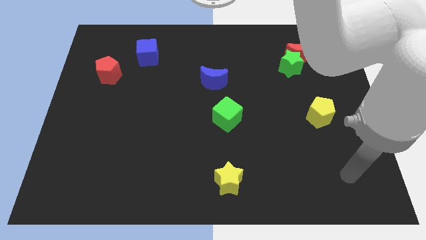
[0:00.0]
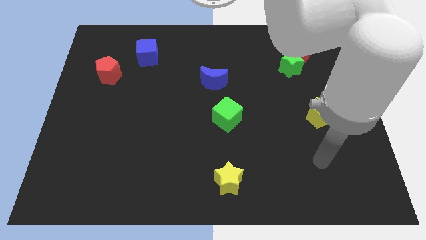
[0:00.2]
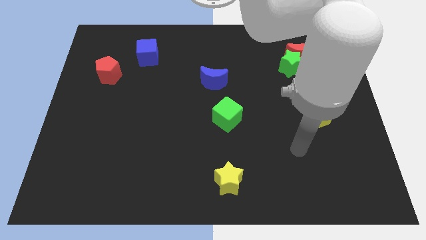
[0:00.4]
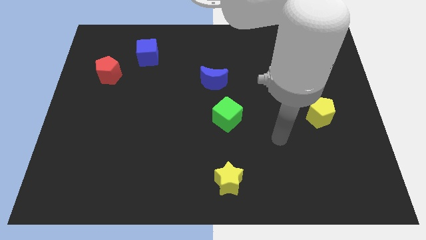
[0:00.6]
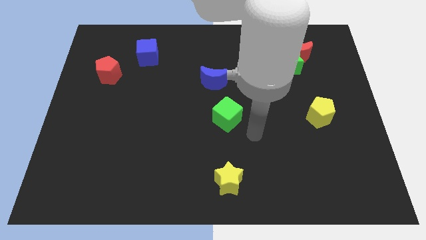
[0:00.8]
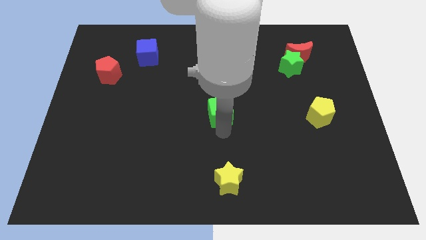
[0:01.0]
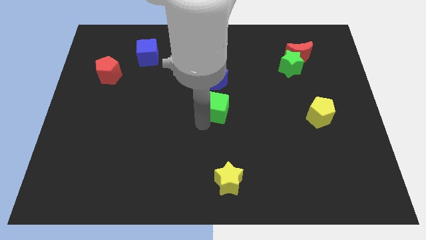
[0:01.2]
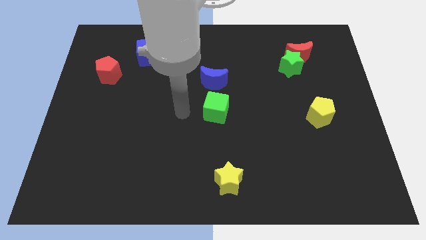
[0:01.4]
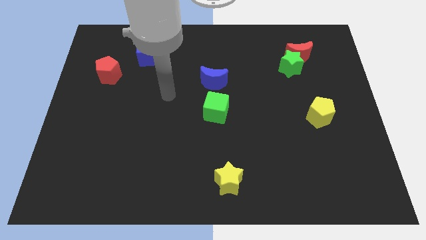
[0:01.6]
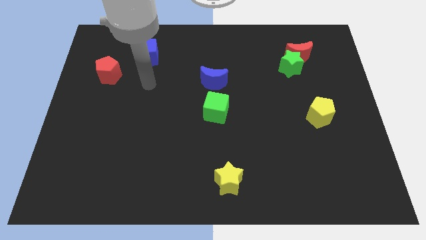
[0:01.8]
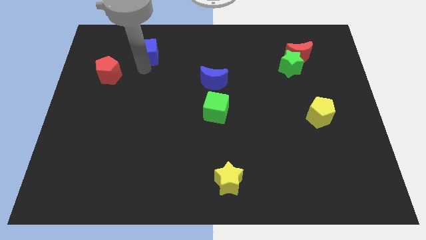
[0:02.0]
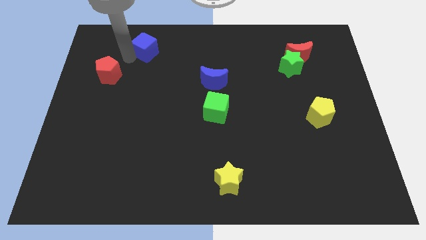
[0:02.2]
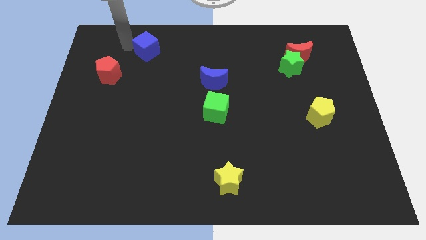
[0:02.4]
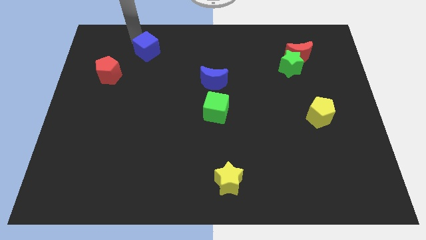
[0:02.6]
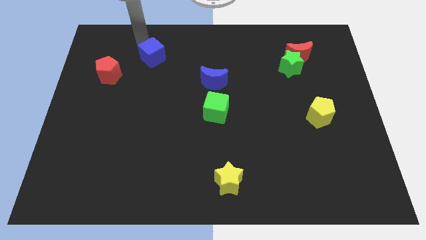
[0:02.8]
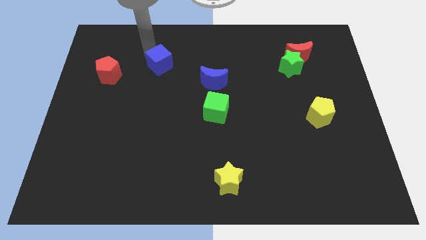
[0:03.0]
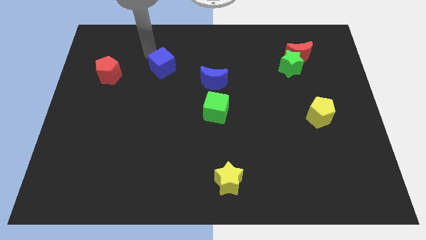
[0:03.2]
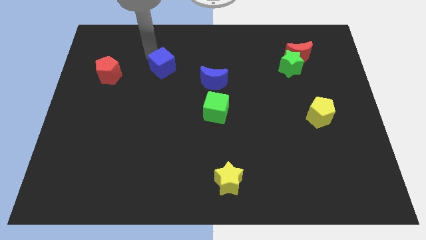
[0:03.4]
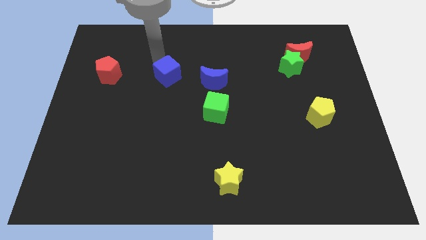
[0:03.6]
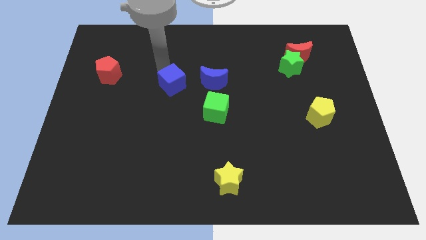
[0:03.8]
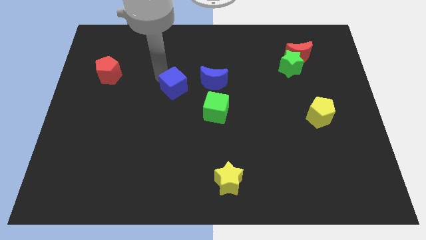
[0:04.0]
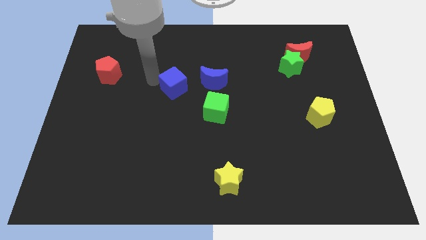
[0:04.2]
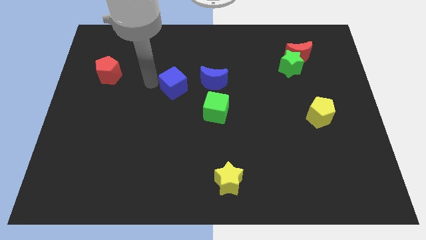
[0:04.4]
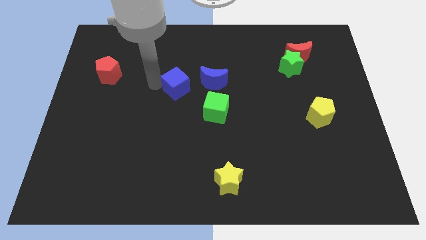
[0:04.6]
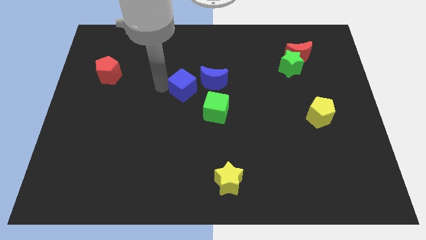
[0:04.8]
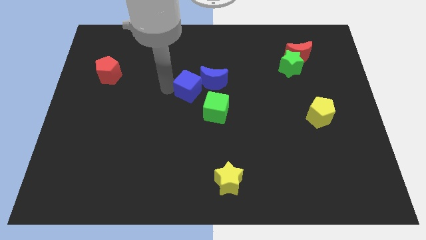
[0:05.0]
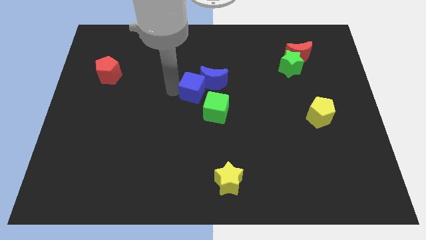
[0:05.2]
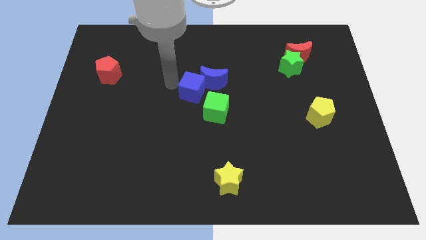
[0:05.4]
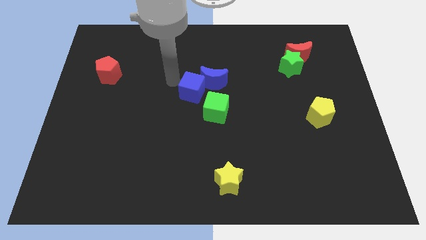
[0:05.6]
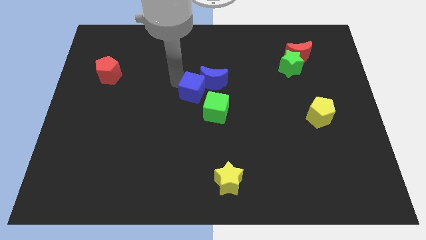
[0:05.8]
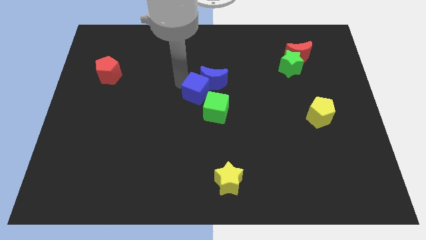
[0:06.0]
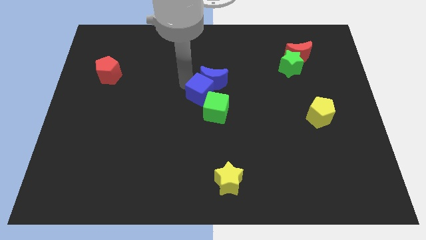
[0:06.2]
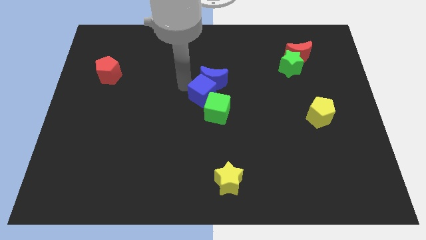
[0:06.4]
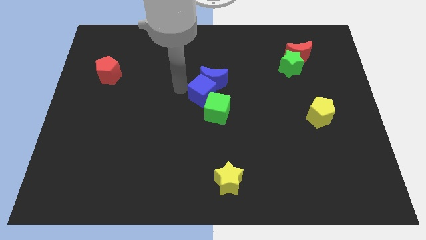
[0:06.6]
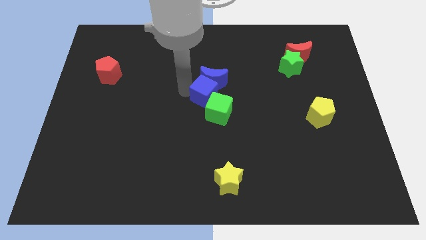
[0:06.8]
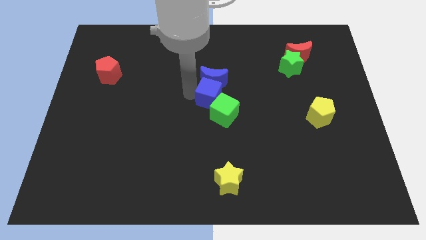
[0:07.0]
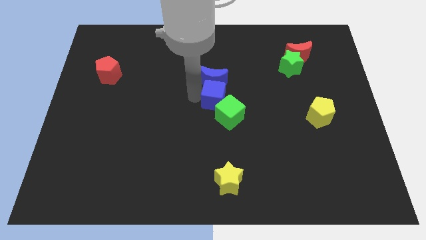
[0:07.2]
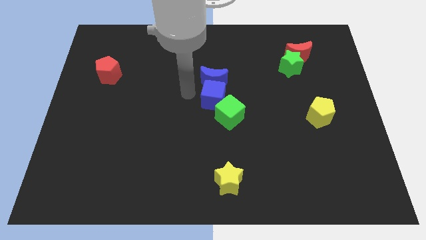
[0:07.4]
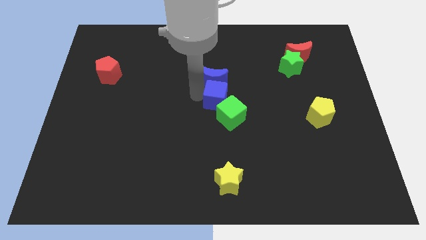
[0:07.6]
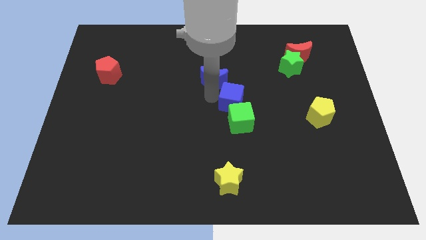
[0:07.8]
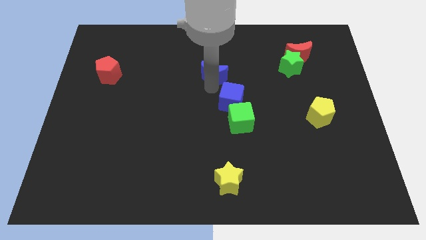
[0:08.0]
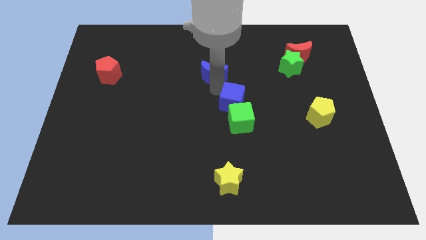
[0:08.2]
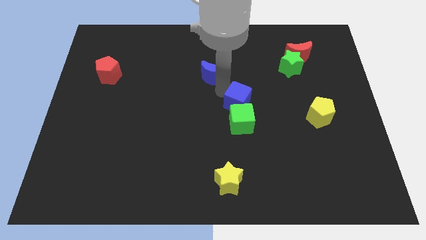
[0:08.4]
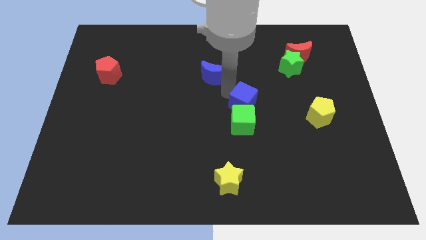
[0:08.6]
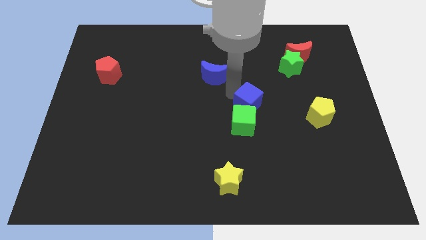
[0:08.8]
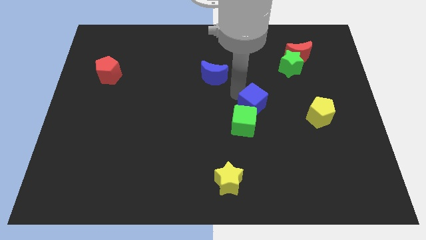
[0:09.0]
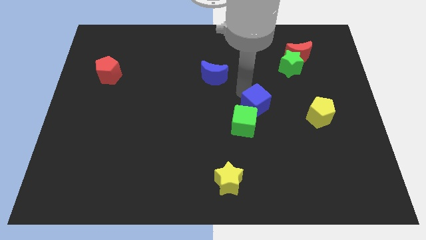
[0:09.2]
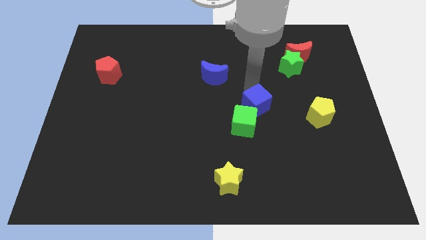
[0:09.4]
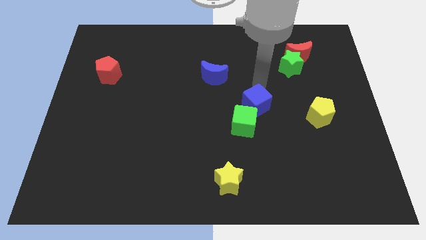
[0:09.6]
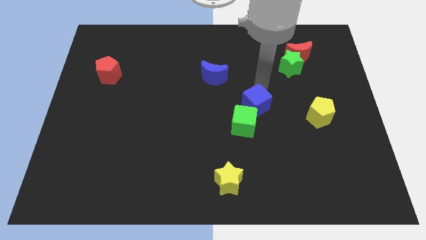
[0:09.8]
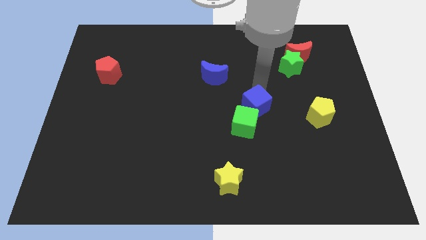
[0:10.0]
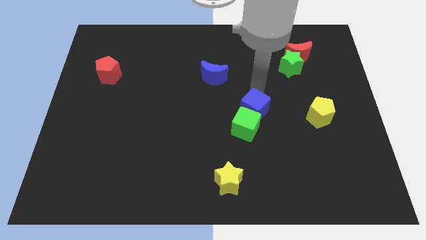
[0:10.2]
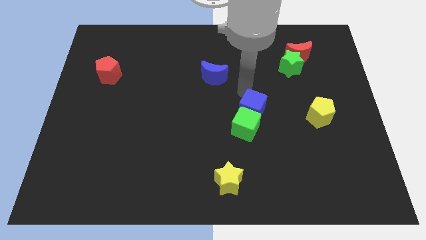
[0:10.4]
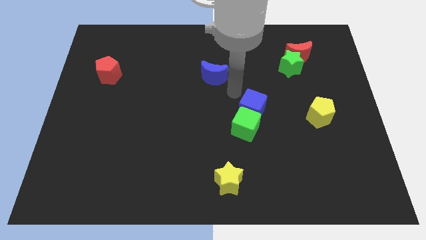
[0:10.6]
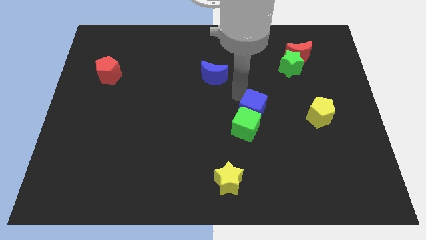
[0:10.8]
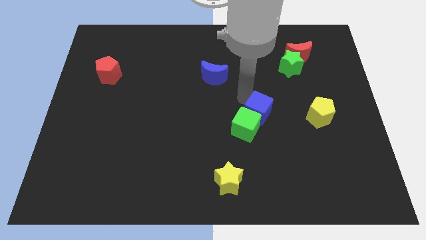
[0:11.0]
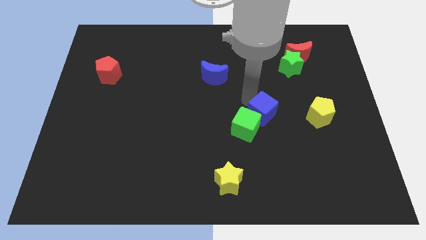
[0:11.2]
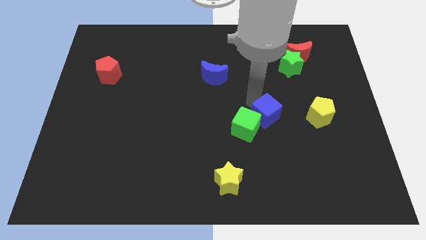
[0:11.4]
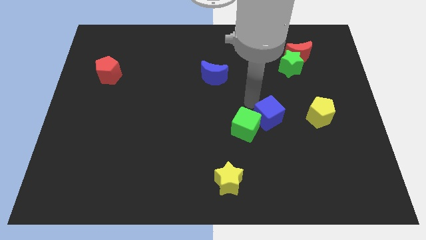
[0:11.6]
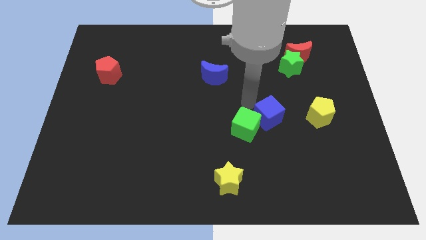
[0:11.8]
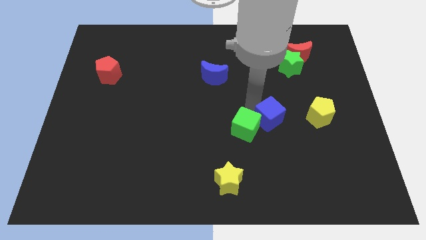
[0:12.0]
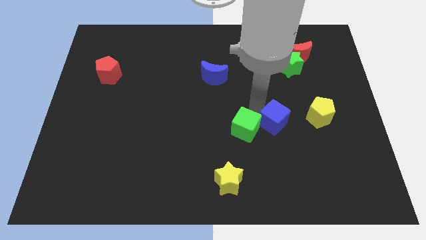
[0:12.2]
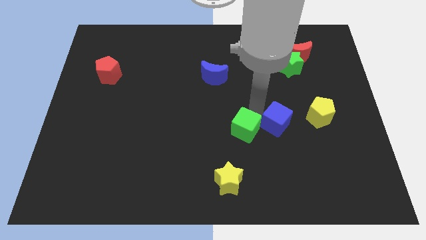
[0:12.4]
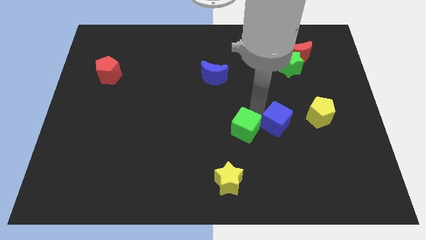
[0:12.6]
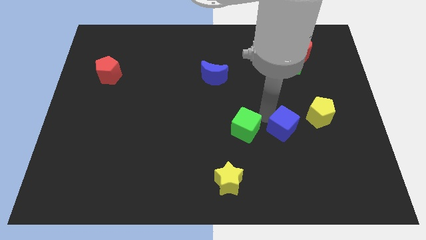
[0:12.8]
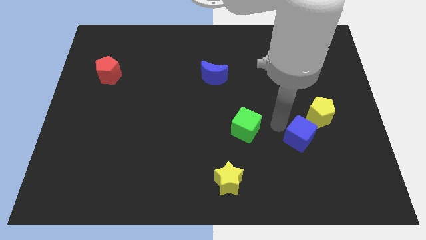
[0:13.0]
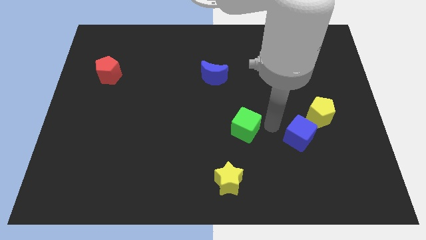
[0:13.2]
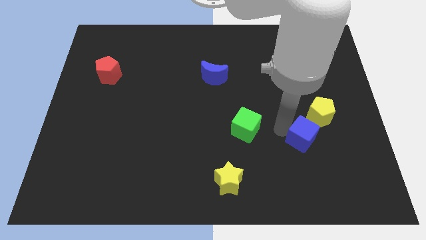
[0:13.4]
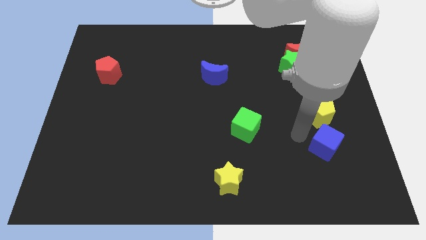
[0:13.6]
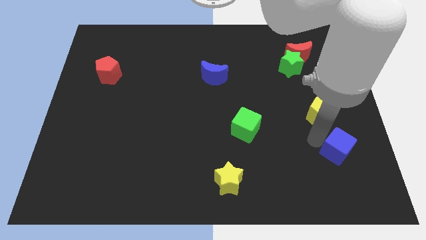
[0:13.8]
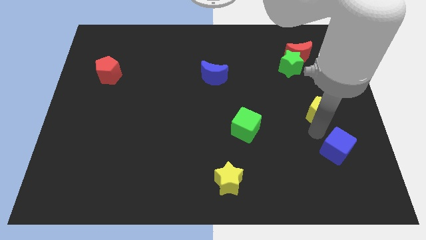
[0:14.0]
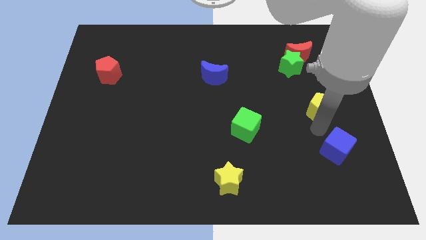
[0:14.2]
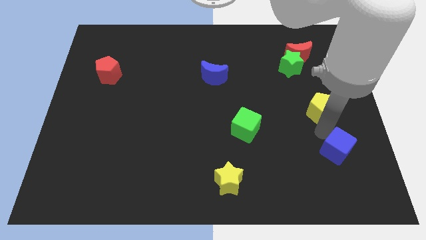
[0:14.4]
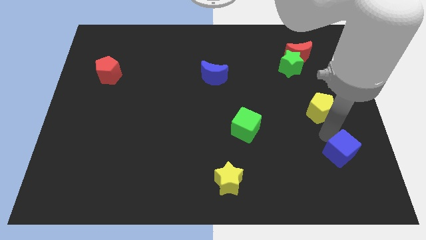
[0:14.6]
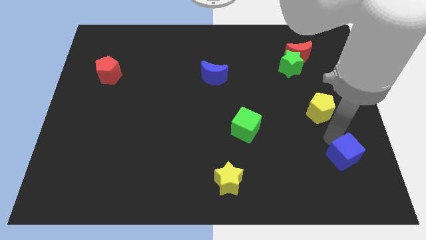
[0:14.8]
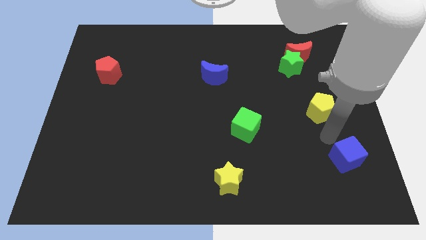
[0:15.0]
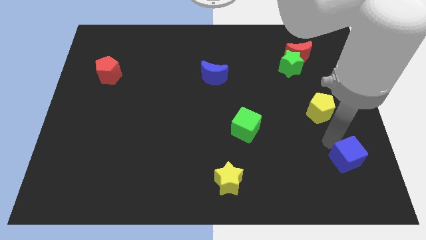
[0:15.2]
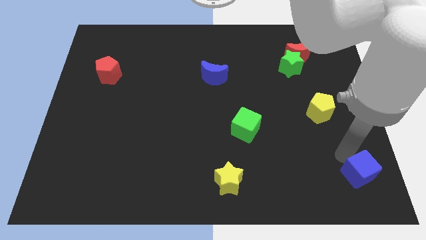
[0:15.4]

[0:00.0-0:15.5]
put the blue cube to the bottom right

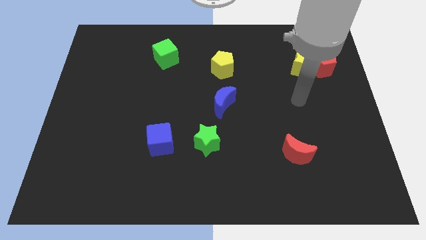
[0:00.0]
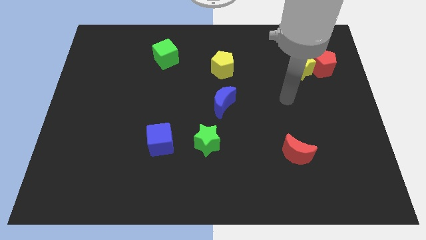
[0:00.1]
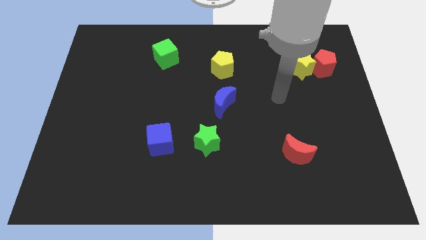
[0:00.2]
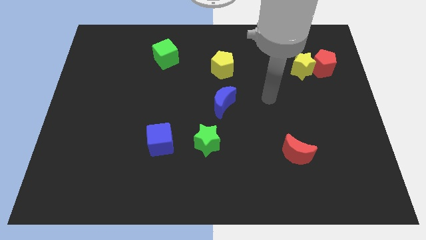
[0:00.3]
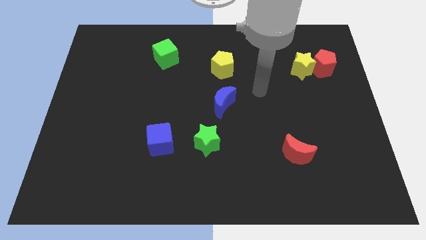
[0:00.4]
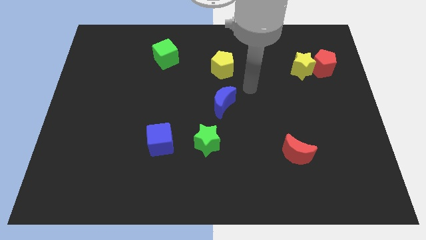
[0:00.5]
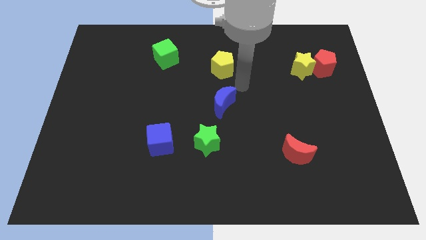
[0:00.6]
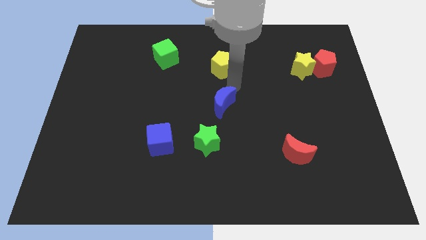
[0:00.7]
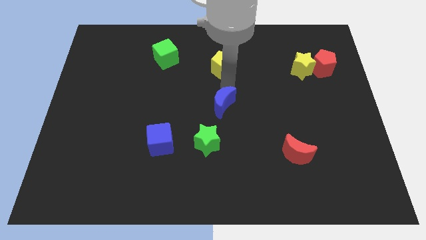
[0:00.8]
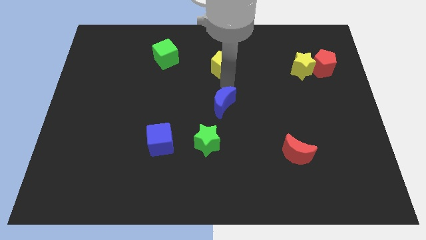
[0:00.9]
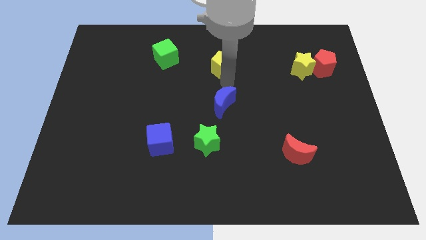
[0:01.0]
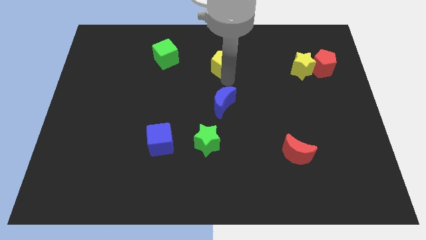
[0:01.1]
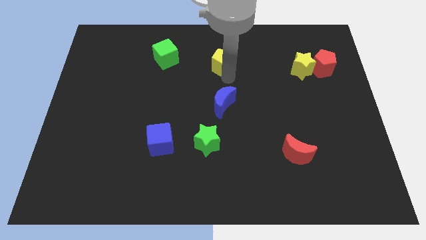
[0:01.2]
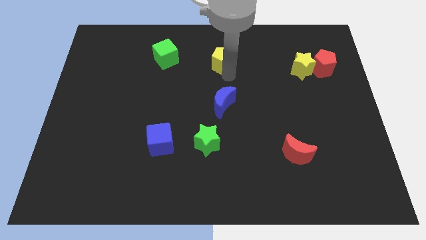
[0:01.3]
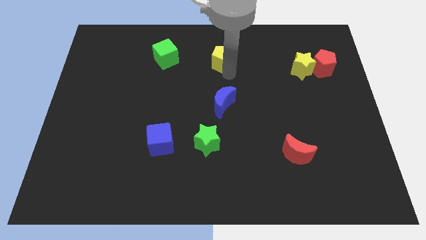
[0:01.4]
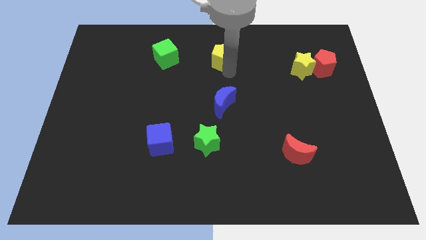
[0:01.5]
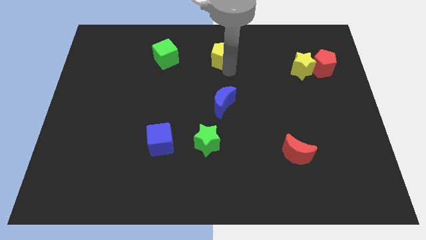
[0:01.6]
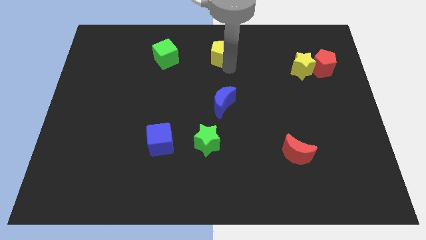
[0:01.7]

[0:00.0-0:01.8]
push the yellow pentagon to the towards your base
